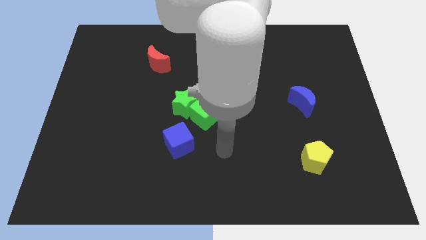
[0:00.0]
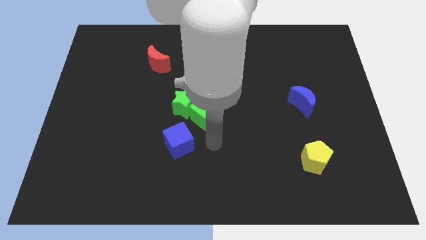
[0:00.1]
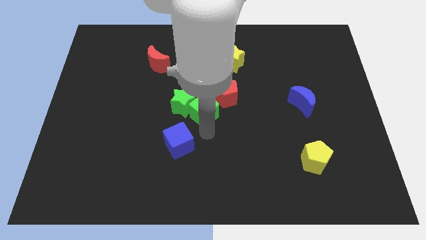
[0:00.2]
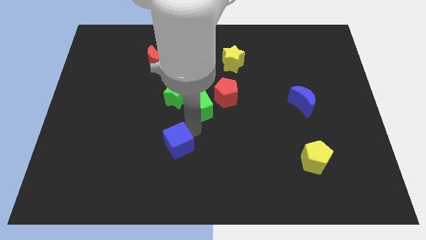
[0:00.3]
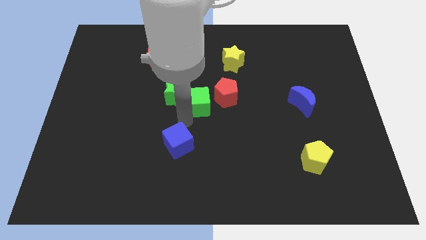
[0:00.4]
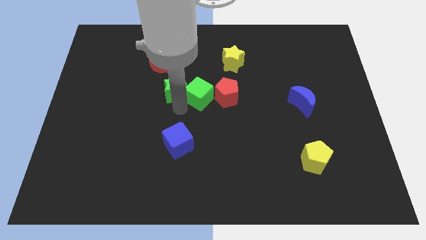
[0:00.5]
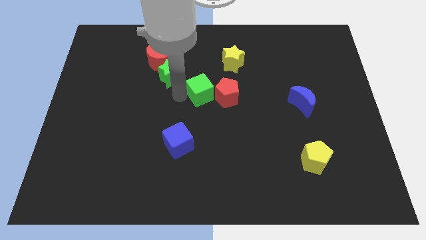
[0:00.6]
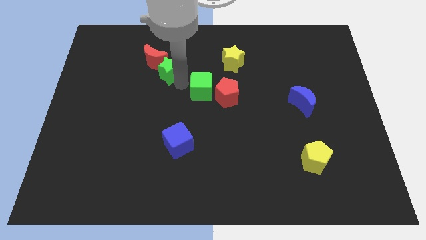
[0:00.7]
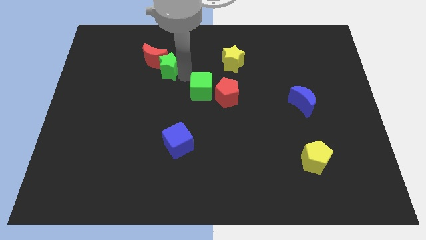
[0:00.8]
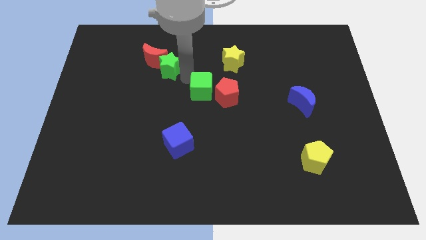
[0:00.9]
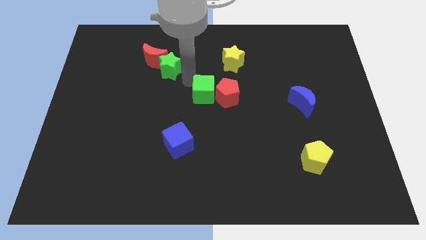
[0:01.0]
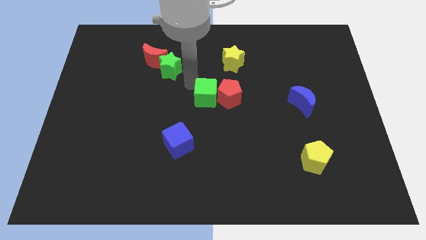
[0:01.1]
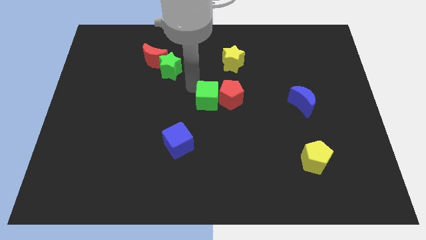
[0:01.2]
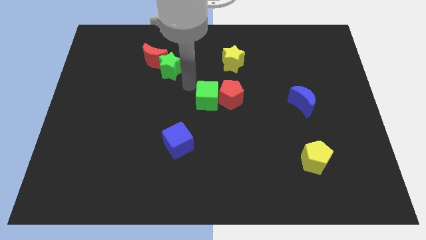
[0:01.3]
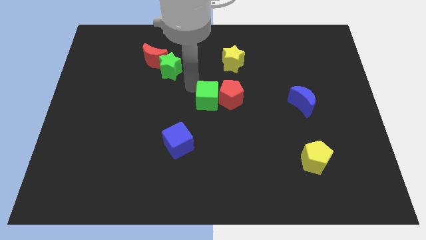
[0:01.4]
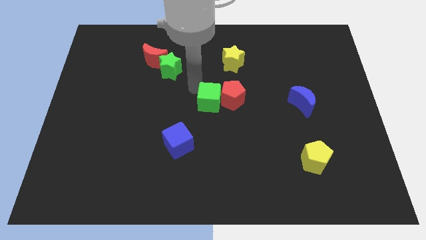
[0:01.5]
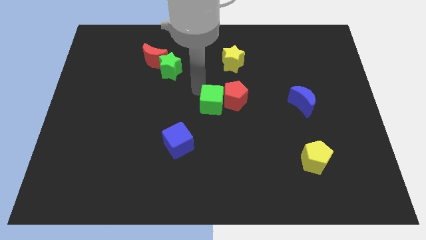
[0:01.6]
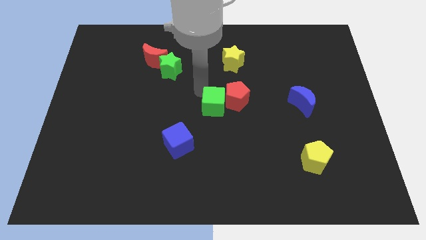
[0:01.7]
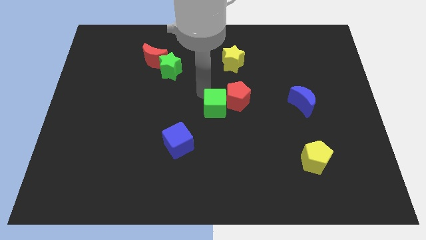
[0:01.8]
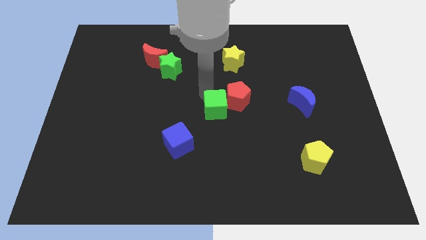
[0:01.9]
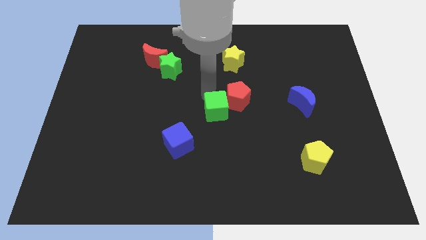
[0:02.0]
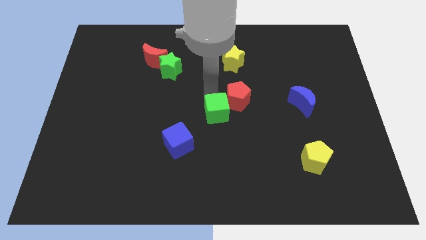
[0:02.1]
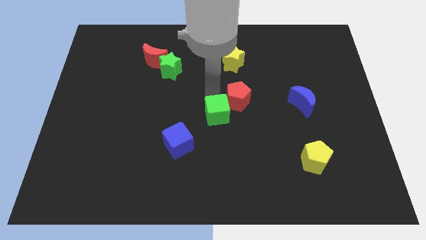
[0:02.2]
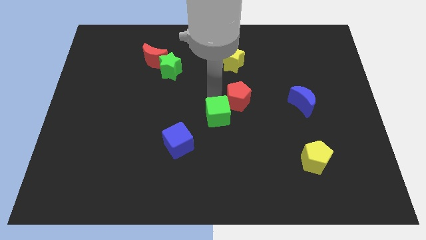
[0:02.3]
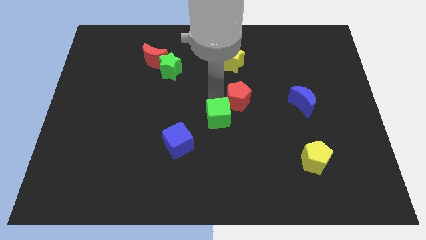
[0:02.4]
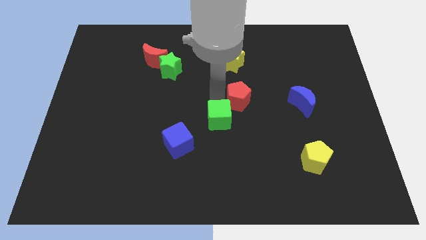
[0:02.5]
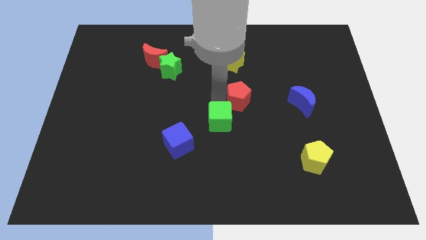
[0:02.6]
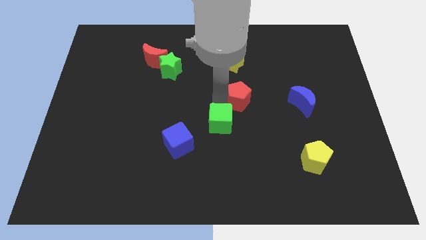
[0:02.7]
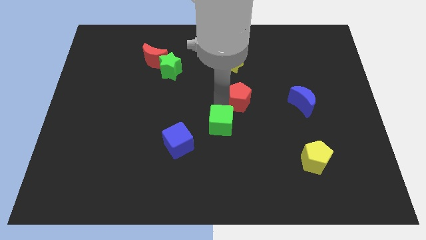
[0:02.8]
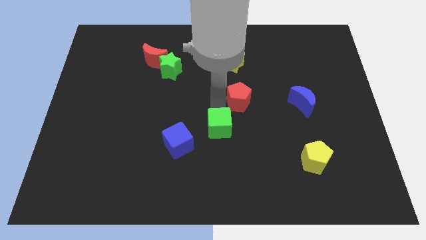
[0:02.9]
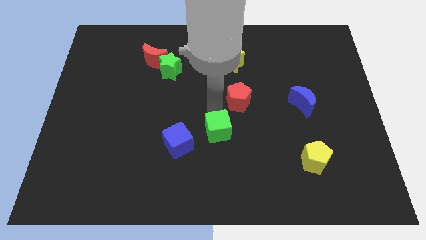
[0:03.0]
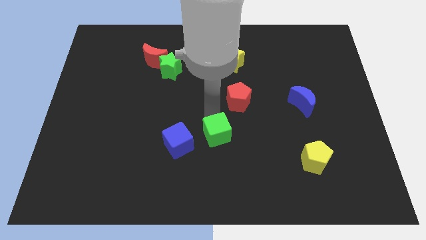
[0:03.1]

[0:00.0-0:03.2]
move the green cube away from the green star, red pentagon, and blue cube

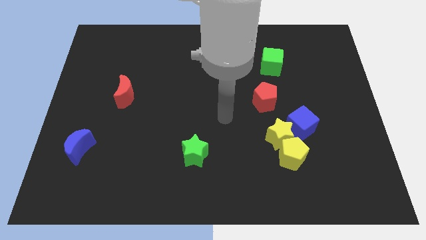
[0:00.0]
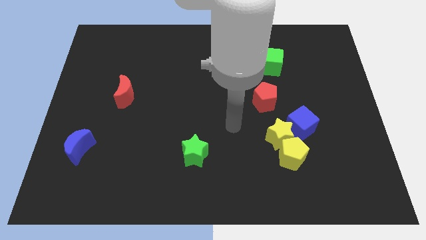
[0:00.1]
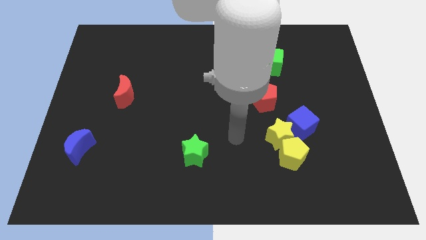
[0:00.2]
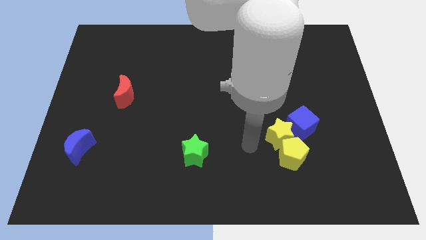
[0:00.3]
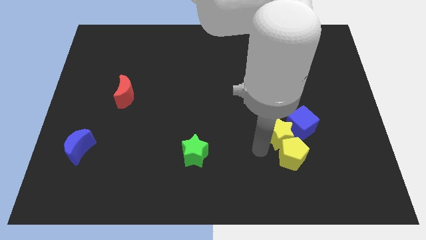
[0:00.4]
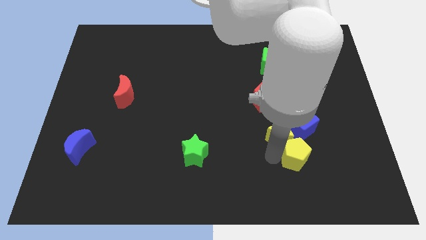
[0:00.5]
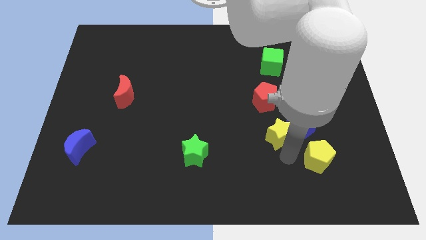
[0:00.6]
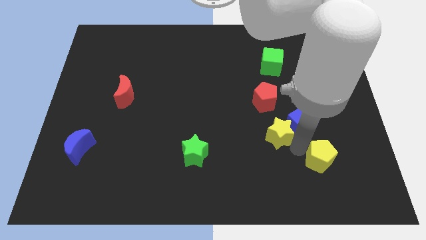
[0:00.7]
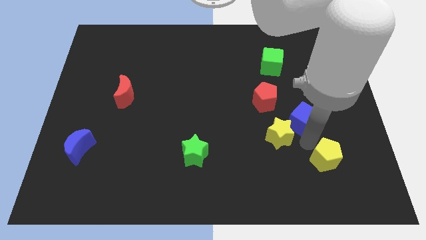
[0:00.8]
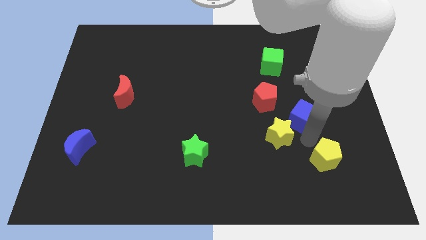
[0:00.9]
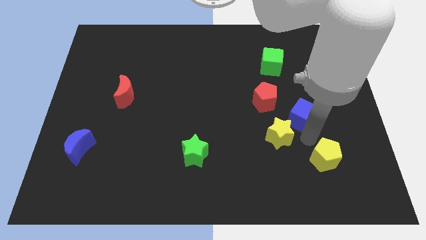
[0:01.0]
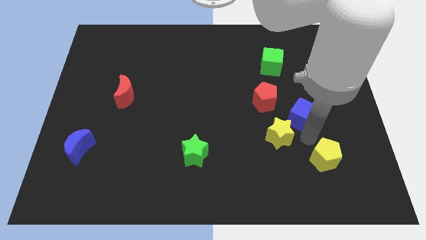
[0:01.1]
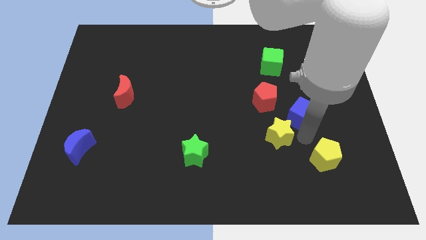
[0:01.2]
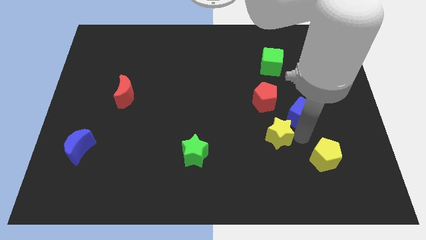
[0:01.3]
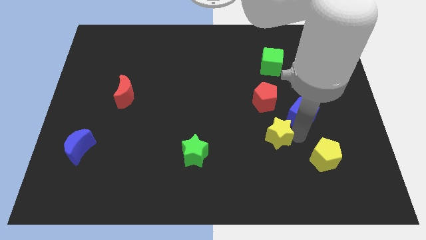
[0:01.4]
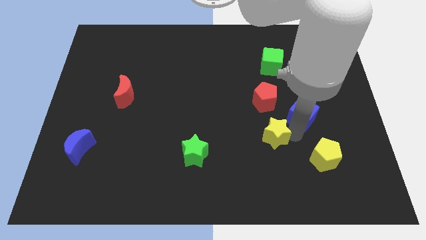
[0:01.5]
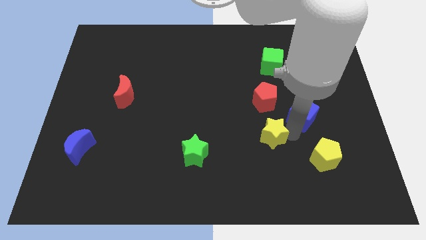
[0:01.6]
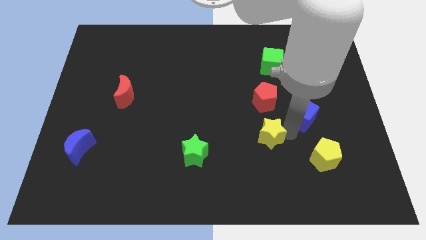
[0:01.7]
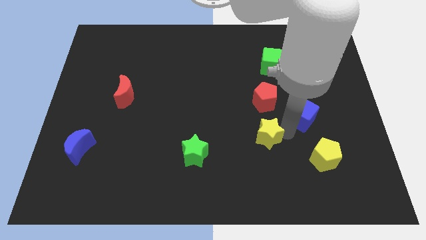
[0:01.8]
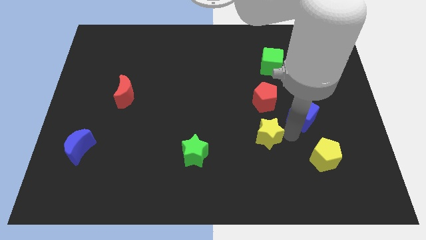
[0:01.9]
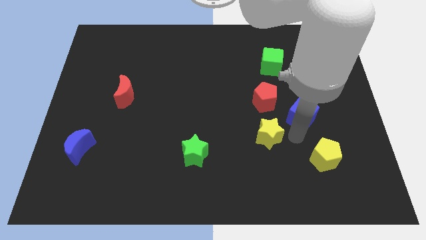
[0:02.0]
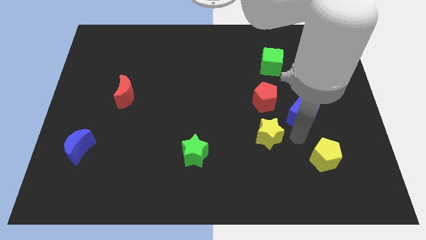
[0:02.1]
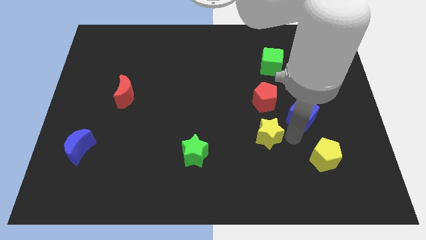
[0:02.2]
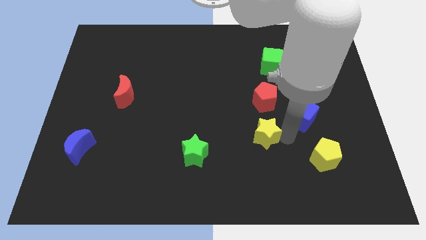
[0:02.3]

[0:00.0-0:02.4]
separate the yellow star from the yellow pentagon and blue cube

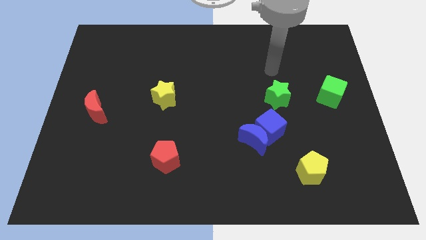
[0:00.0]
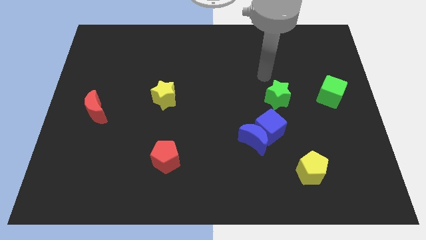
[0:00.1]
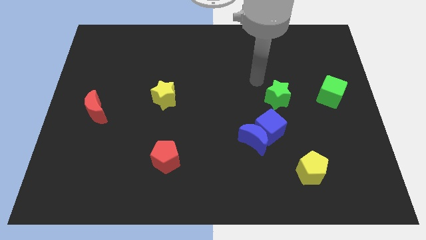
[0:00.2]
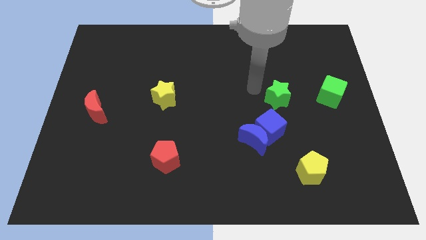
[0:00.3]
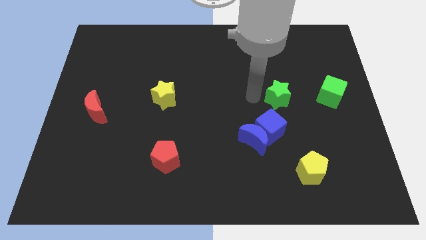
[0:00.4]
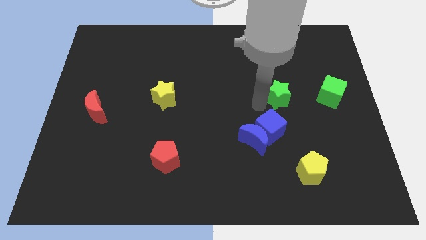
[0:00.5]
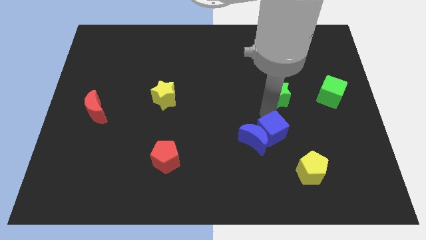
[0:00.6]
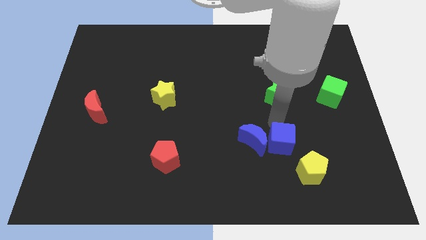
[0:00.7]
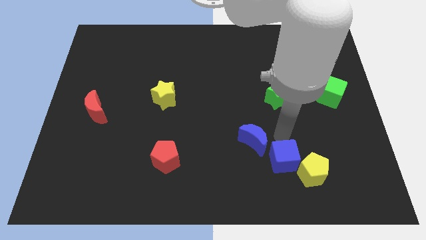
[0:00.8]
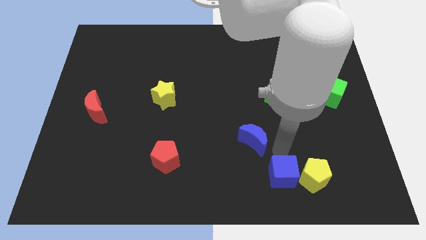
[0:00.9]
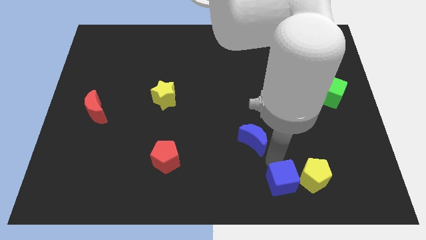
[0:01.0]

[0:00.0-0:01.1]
separate the blue moon from the blue cube

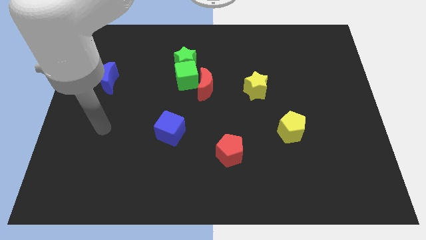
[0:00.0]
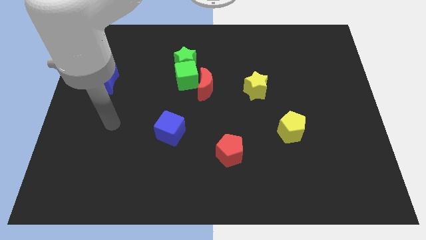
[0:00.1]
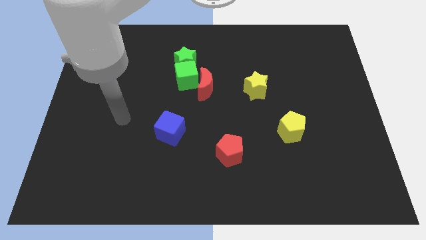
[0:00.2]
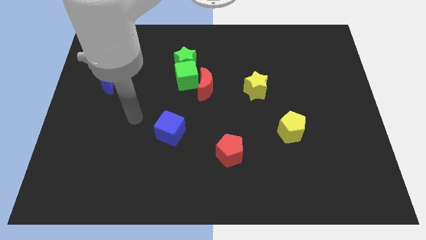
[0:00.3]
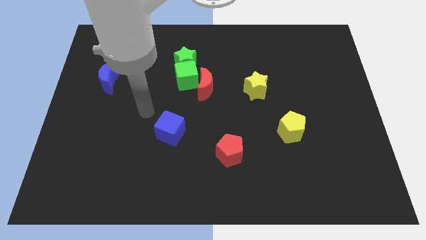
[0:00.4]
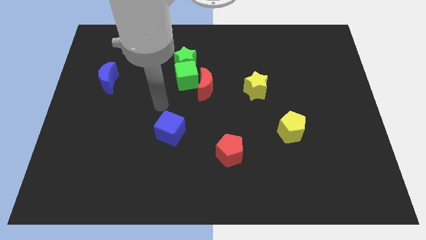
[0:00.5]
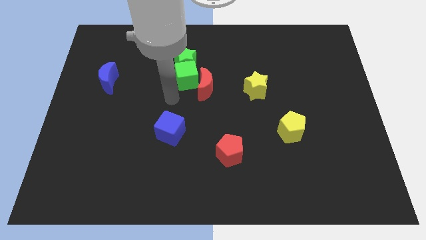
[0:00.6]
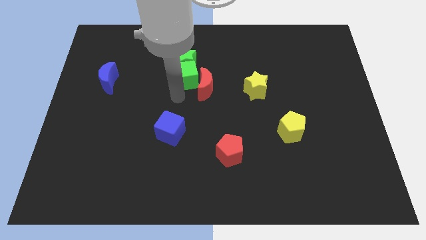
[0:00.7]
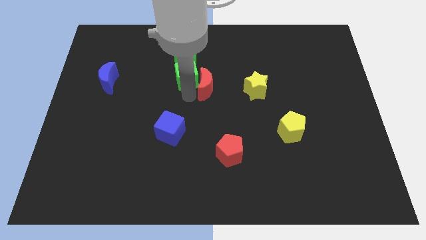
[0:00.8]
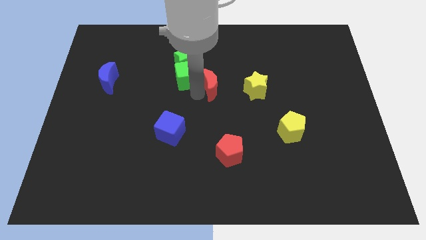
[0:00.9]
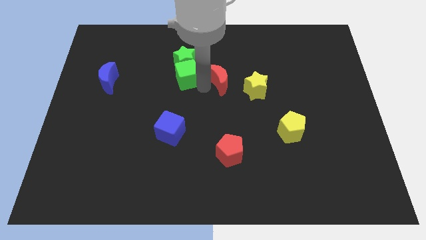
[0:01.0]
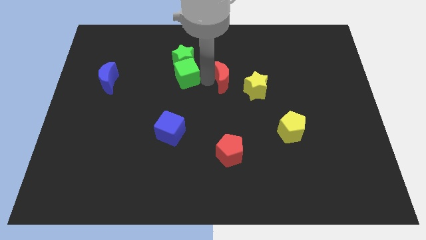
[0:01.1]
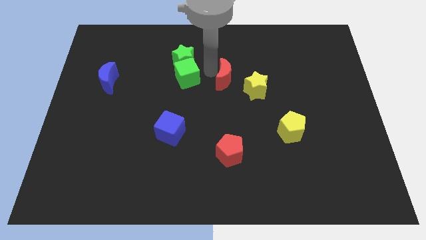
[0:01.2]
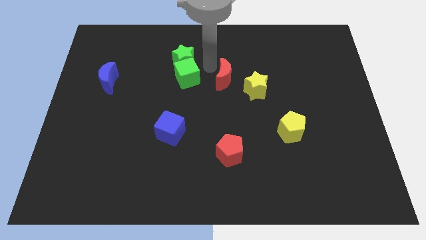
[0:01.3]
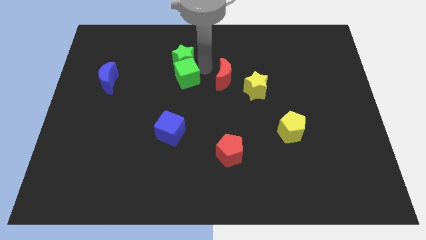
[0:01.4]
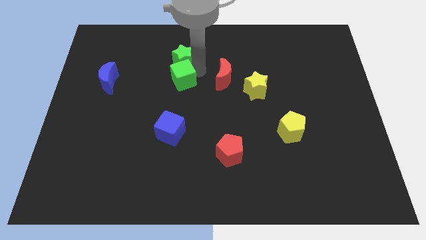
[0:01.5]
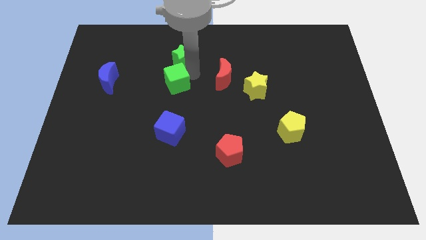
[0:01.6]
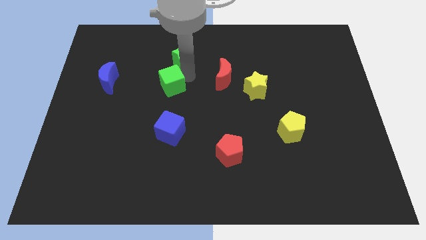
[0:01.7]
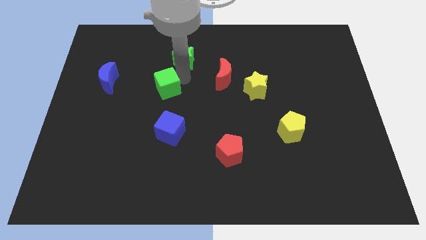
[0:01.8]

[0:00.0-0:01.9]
pull the green cube apart from the green star and red moon

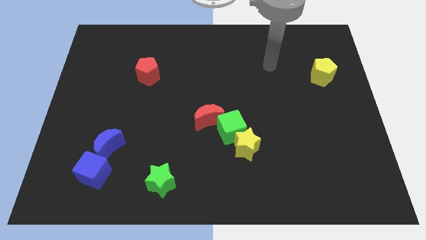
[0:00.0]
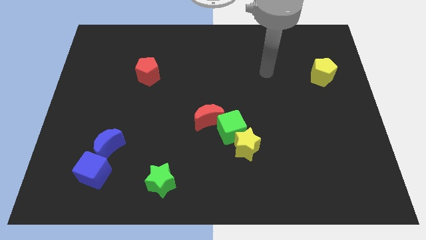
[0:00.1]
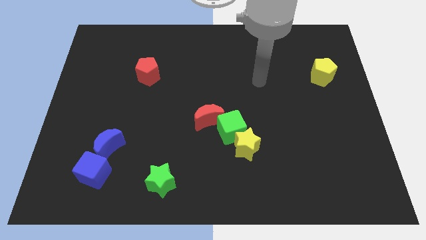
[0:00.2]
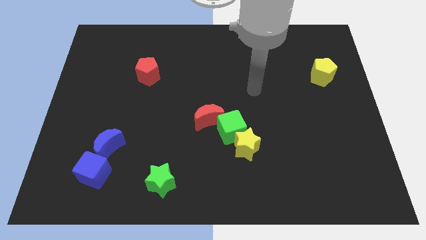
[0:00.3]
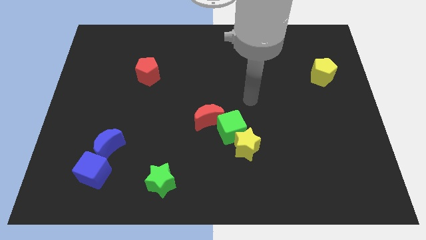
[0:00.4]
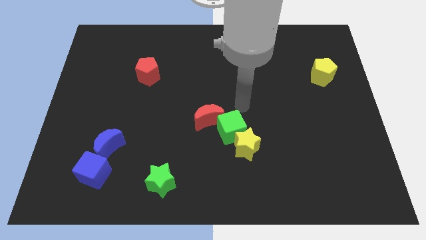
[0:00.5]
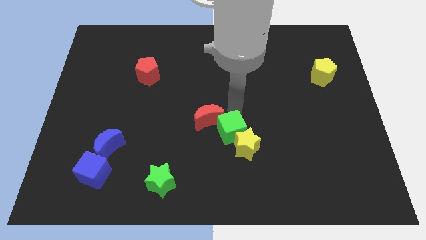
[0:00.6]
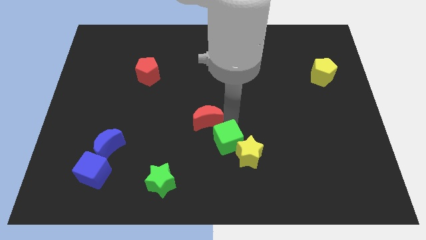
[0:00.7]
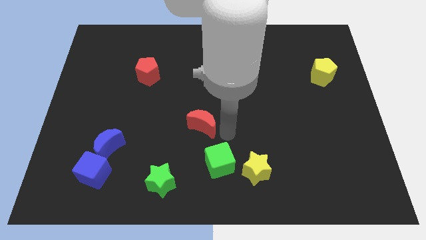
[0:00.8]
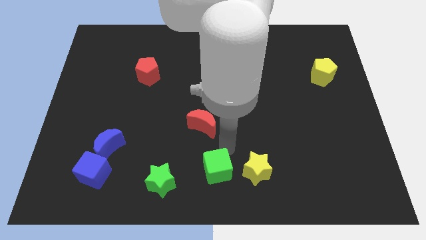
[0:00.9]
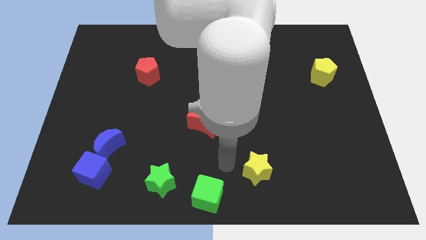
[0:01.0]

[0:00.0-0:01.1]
separate the yellow star from the green cube
